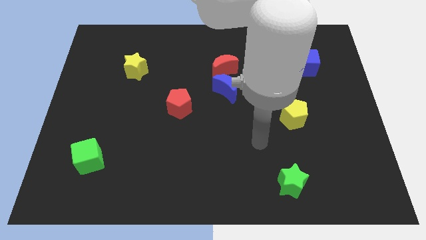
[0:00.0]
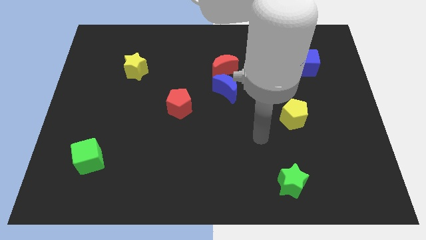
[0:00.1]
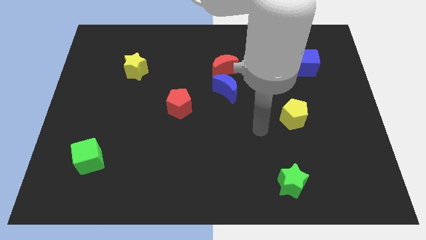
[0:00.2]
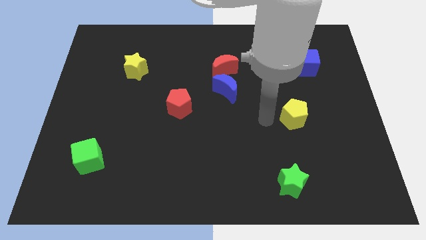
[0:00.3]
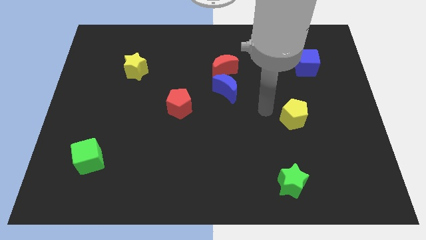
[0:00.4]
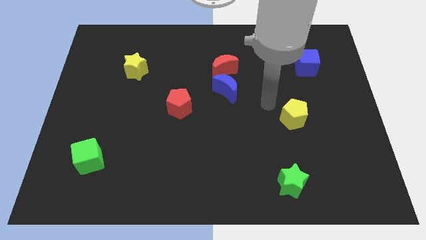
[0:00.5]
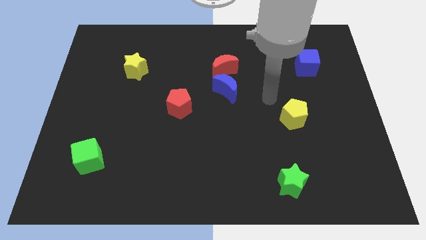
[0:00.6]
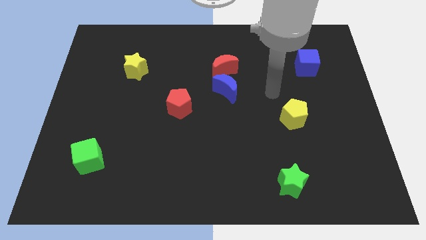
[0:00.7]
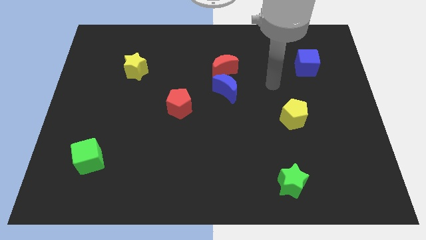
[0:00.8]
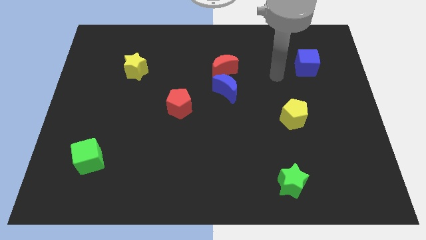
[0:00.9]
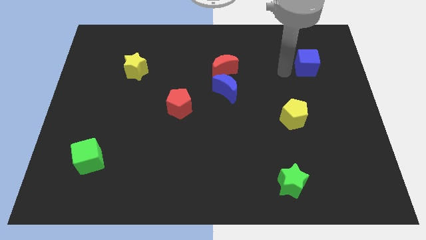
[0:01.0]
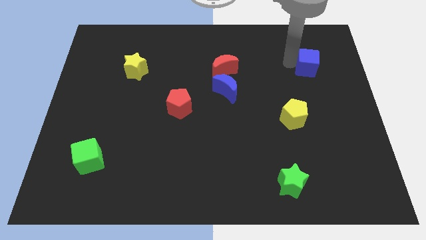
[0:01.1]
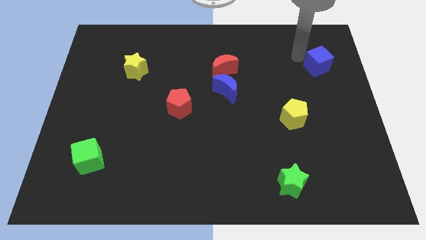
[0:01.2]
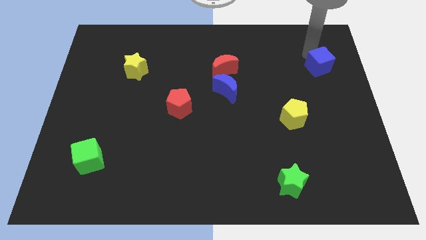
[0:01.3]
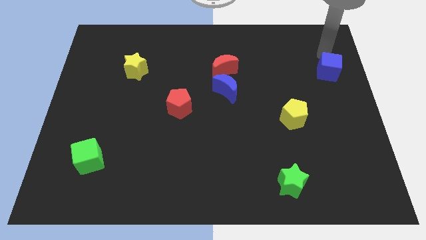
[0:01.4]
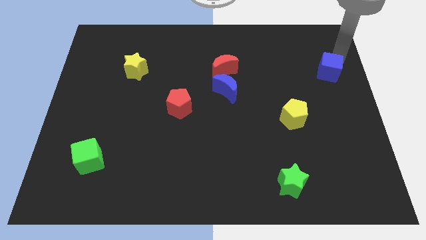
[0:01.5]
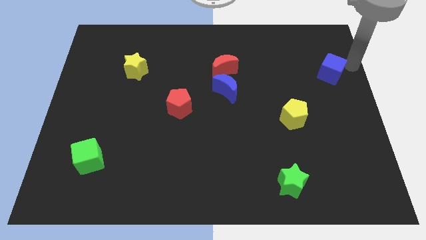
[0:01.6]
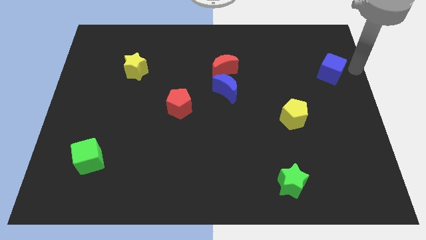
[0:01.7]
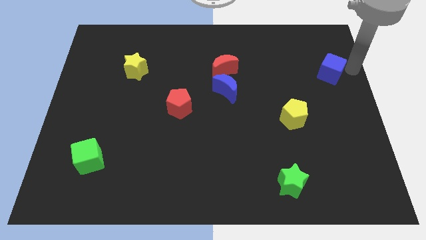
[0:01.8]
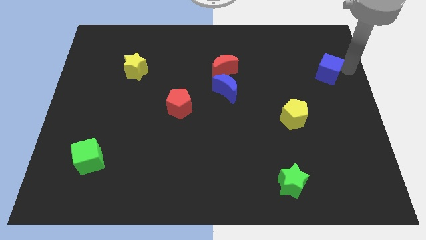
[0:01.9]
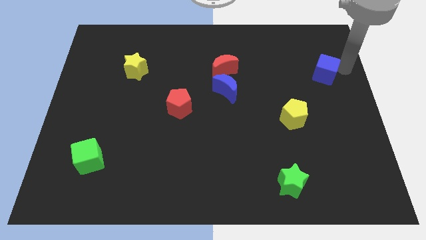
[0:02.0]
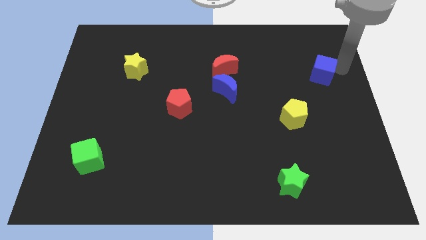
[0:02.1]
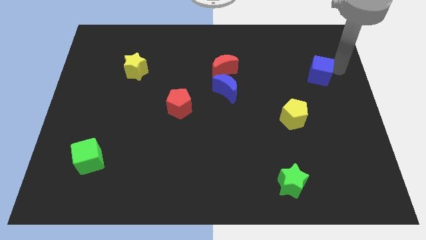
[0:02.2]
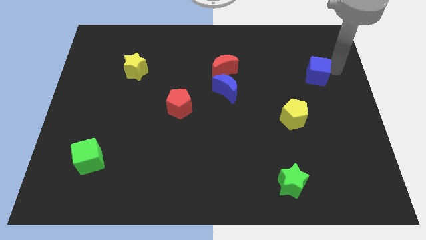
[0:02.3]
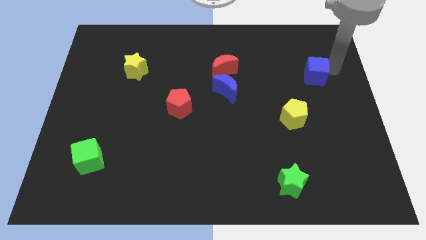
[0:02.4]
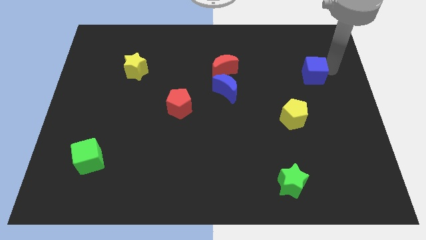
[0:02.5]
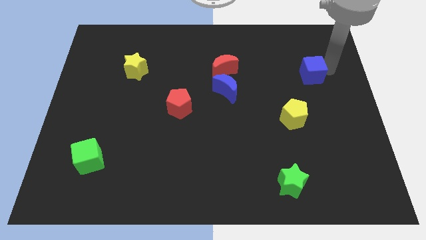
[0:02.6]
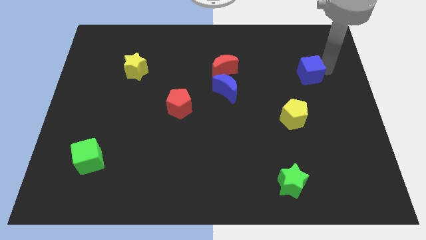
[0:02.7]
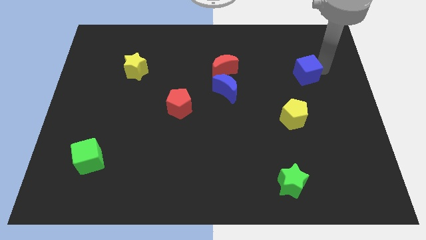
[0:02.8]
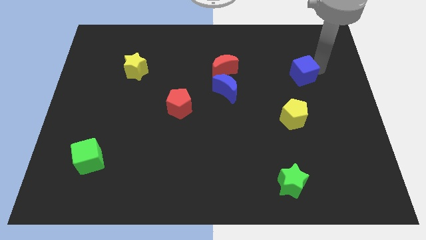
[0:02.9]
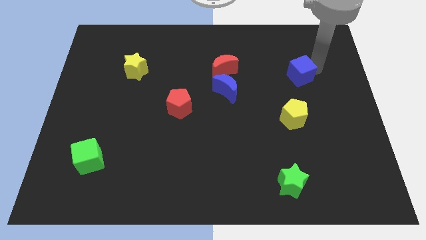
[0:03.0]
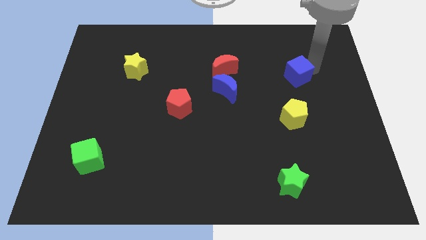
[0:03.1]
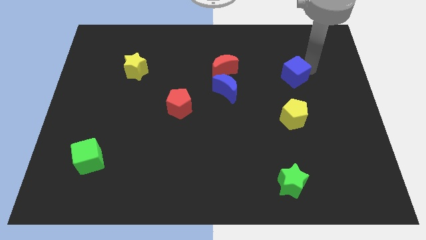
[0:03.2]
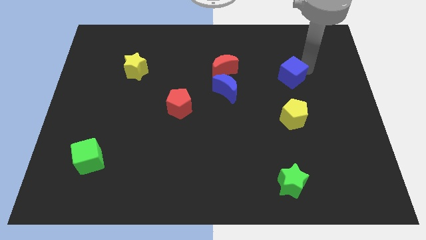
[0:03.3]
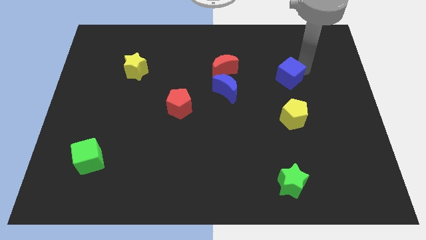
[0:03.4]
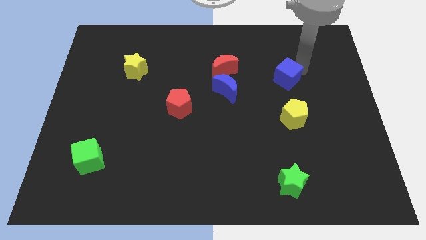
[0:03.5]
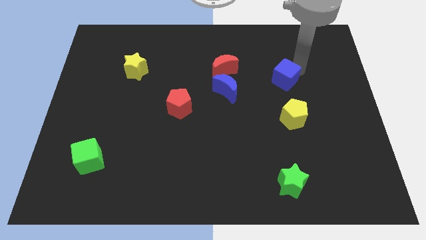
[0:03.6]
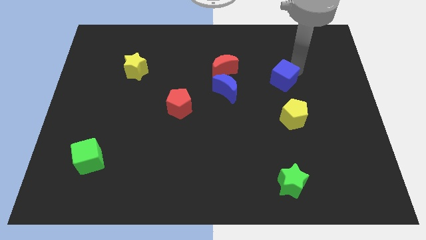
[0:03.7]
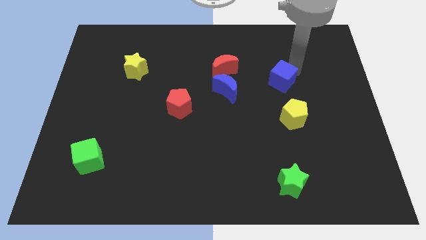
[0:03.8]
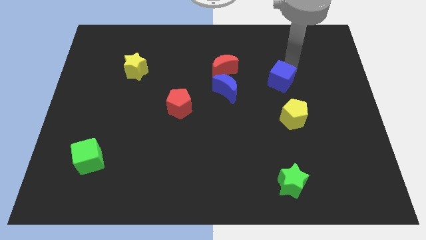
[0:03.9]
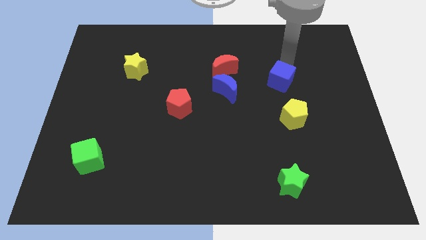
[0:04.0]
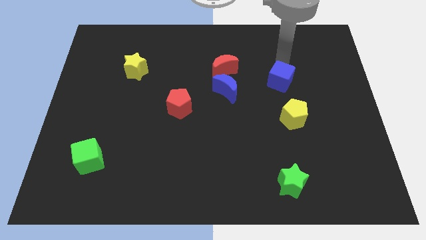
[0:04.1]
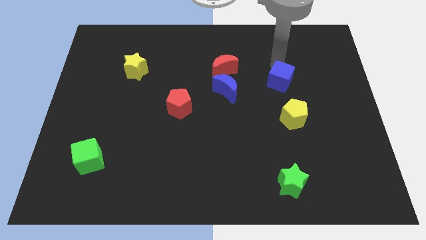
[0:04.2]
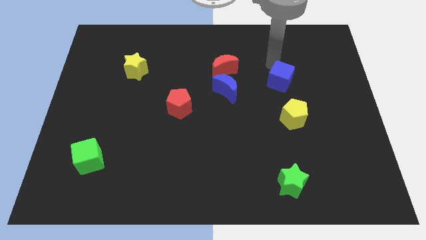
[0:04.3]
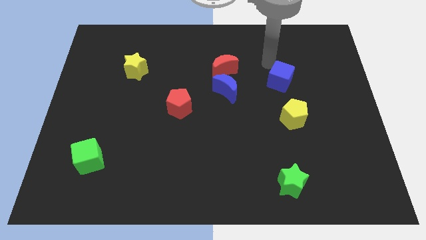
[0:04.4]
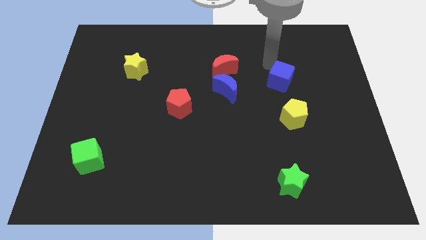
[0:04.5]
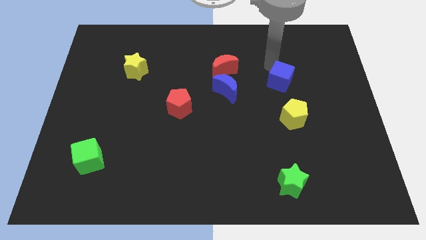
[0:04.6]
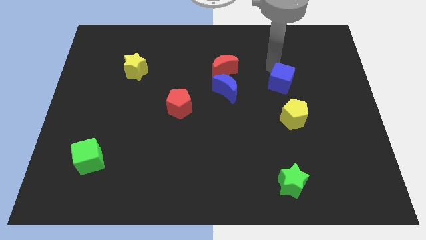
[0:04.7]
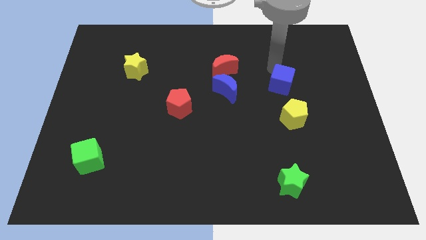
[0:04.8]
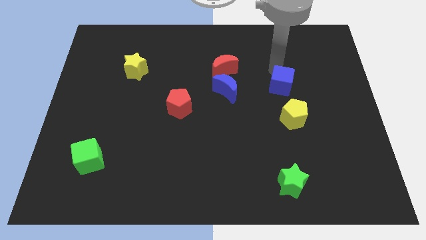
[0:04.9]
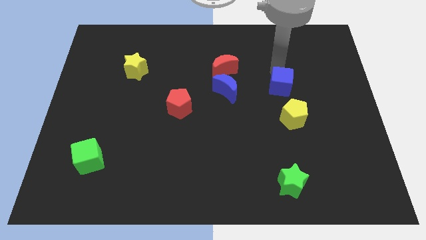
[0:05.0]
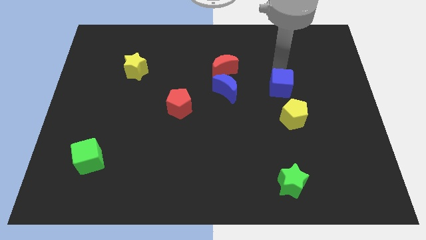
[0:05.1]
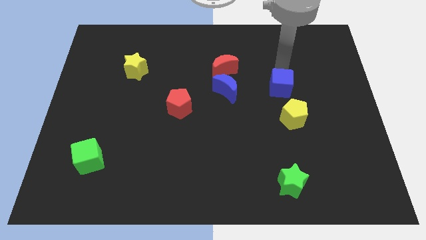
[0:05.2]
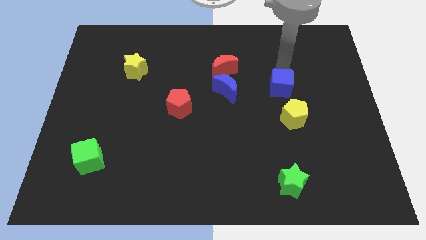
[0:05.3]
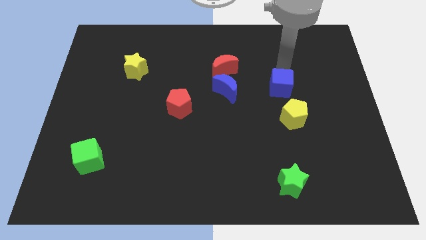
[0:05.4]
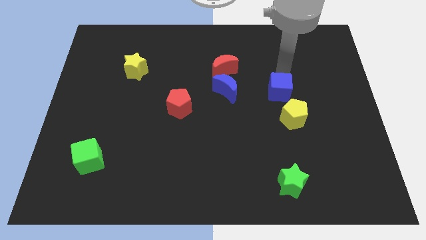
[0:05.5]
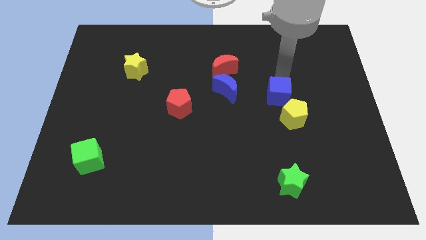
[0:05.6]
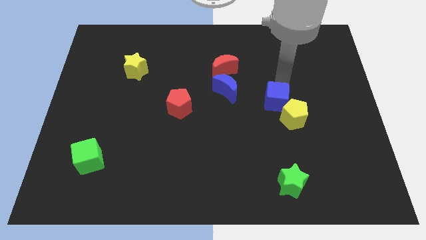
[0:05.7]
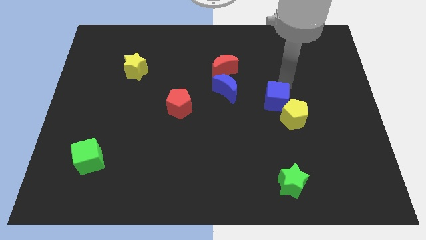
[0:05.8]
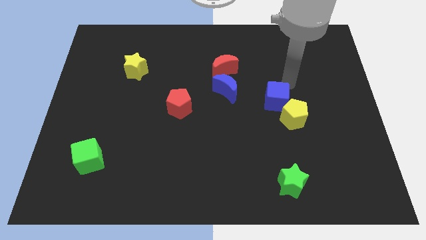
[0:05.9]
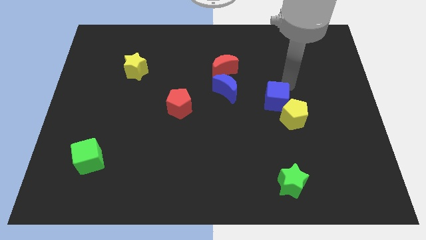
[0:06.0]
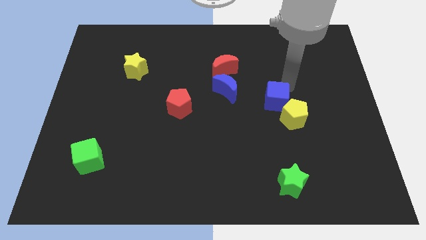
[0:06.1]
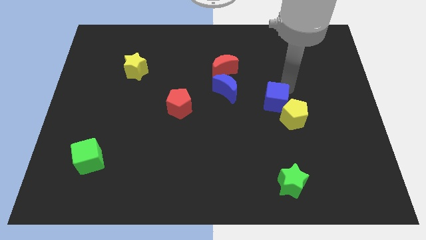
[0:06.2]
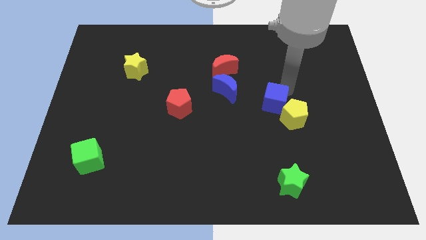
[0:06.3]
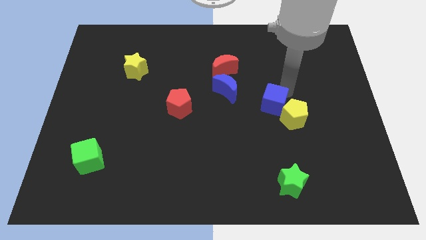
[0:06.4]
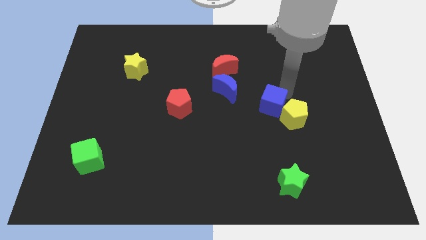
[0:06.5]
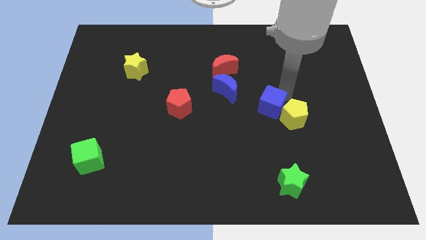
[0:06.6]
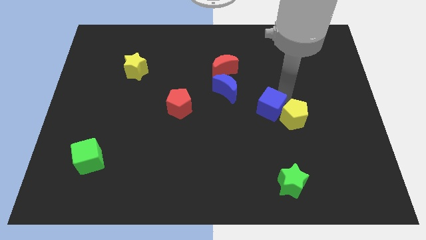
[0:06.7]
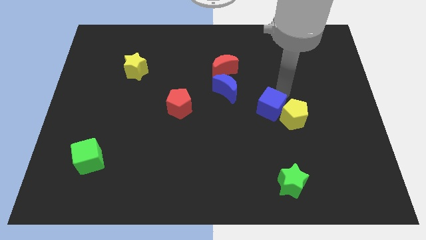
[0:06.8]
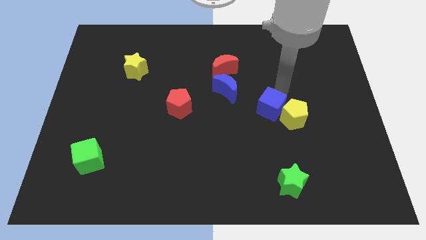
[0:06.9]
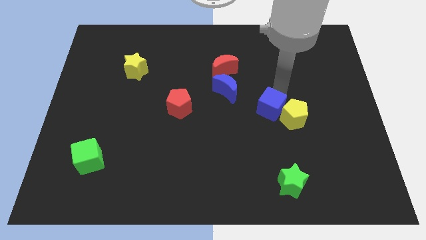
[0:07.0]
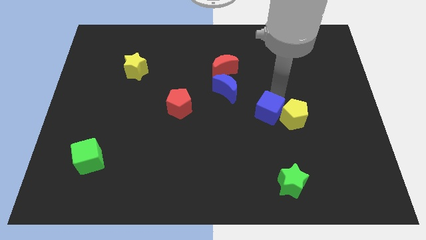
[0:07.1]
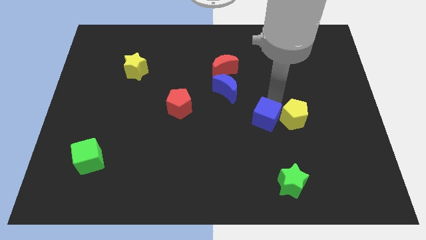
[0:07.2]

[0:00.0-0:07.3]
put the blue cube diagonally down and to the left of the yellow pentagon
